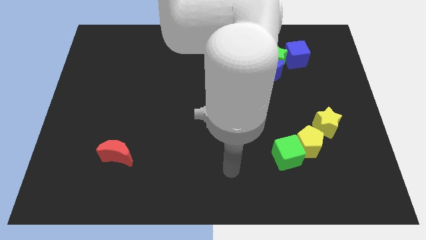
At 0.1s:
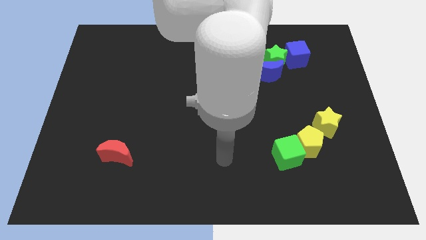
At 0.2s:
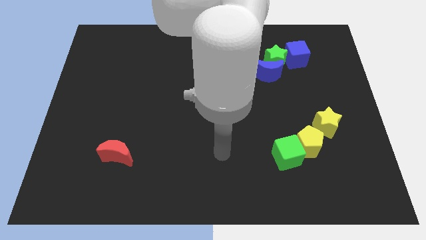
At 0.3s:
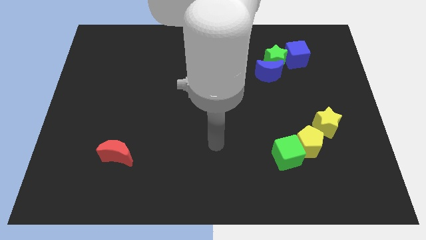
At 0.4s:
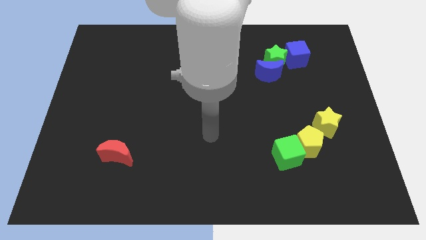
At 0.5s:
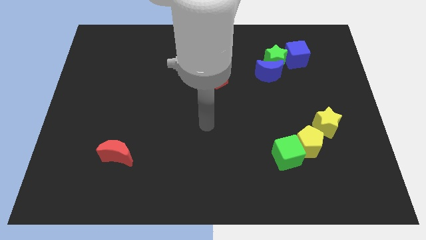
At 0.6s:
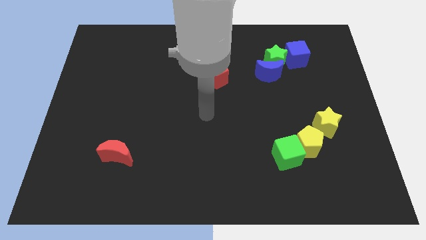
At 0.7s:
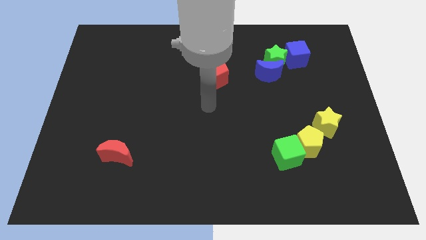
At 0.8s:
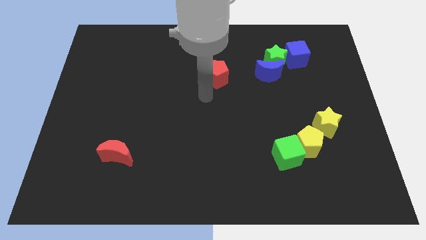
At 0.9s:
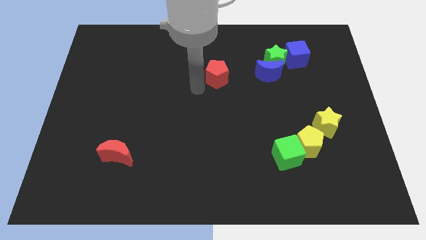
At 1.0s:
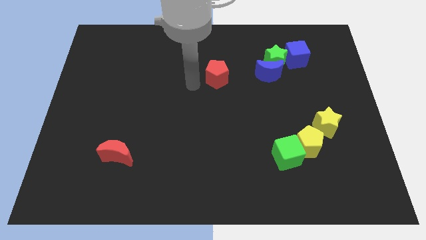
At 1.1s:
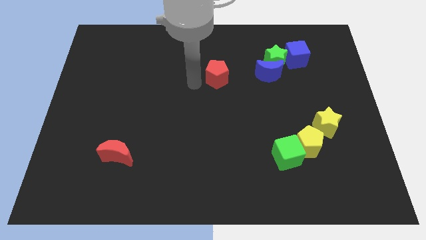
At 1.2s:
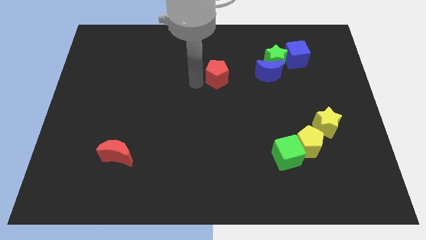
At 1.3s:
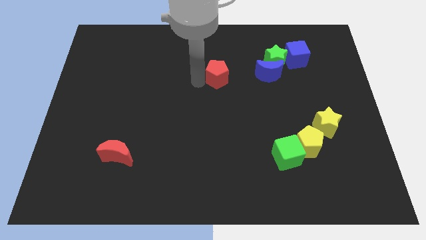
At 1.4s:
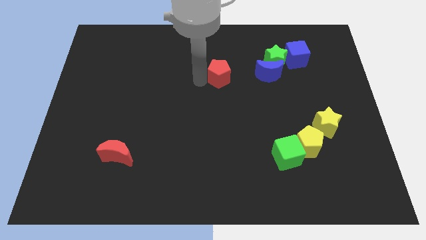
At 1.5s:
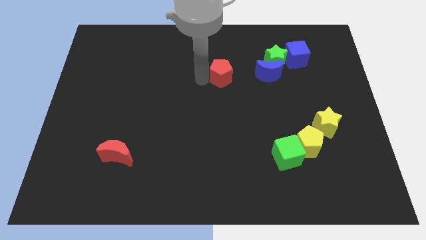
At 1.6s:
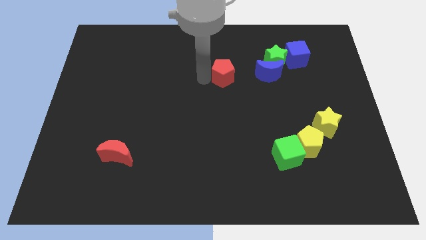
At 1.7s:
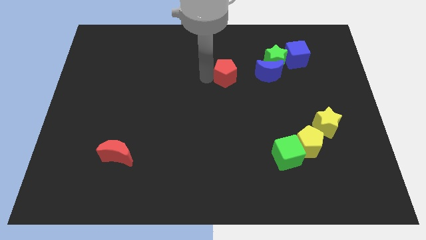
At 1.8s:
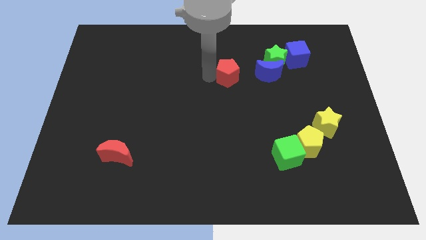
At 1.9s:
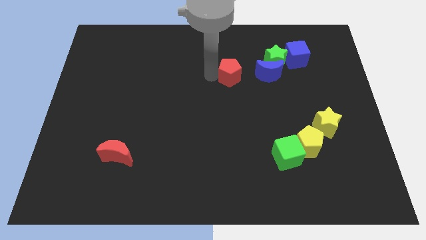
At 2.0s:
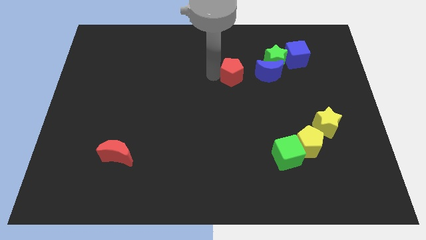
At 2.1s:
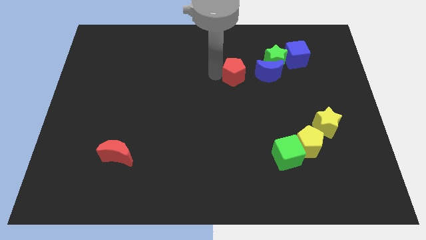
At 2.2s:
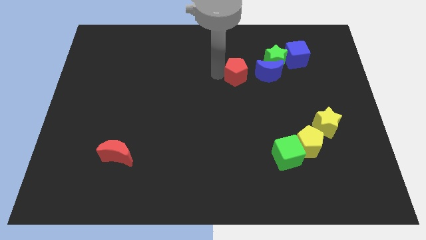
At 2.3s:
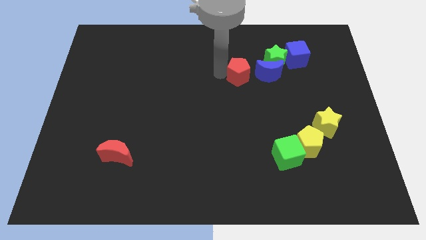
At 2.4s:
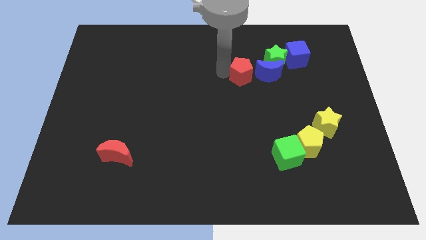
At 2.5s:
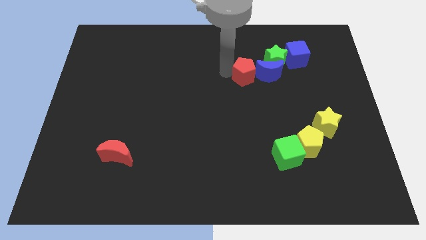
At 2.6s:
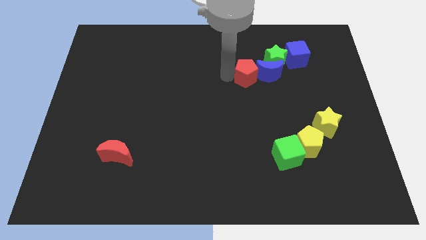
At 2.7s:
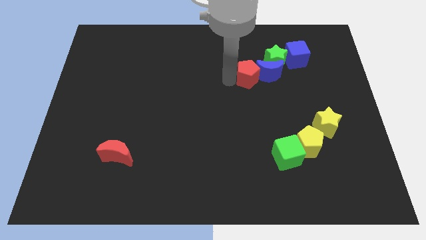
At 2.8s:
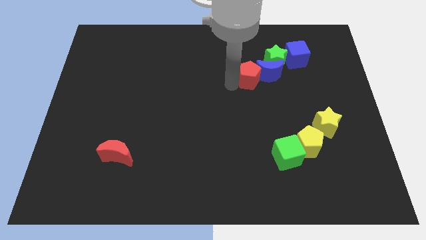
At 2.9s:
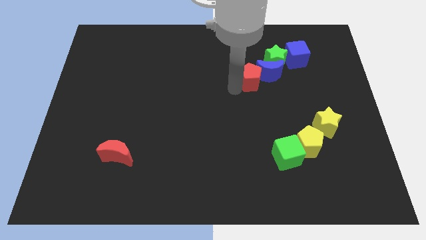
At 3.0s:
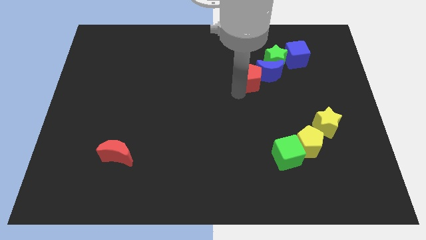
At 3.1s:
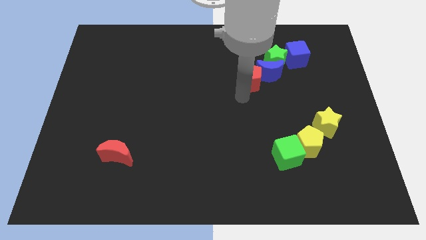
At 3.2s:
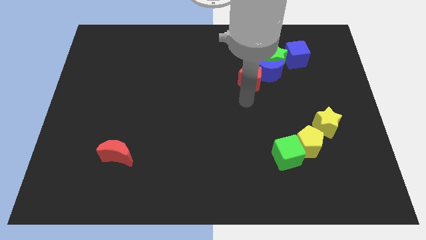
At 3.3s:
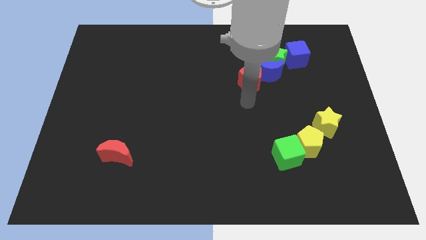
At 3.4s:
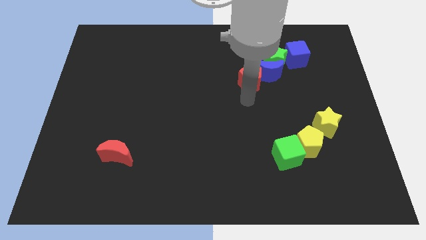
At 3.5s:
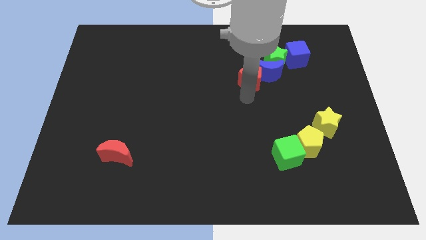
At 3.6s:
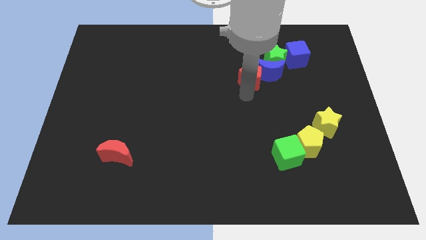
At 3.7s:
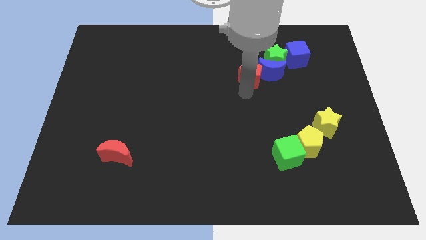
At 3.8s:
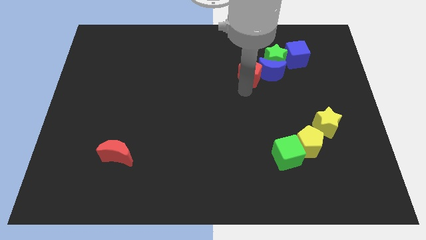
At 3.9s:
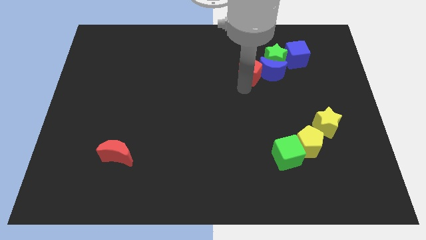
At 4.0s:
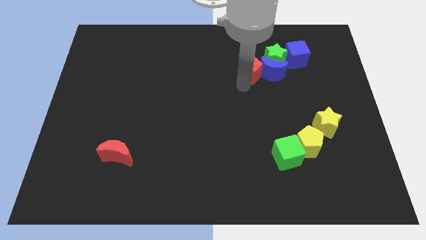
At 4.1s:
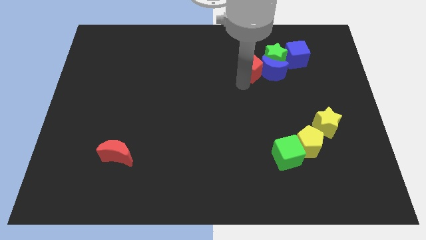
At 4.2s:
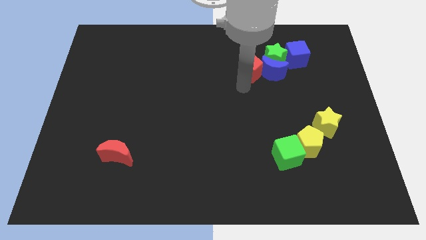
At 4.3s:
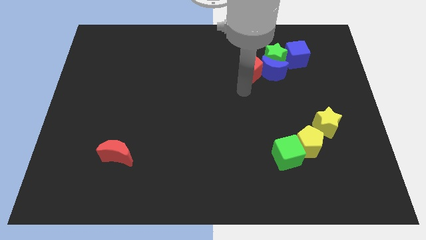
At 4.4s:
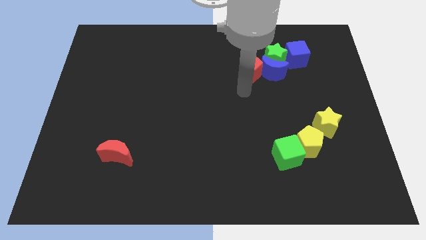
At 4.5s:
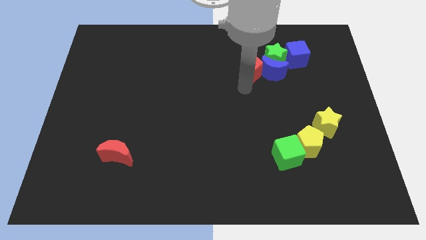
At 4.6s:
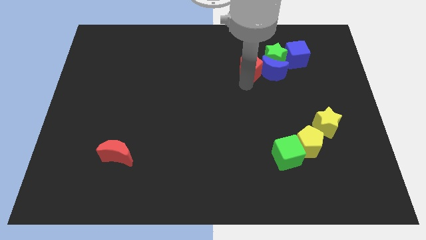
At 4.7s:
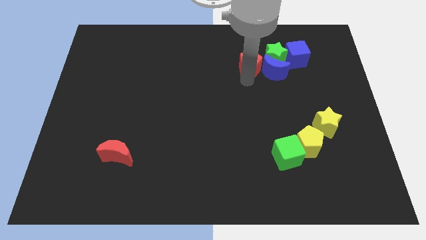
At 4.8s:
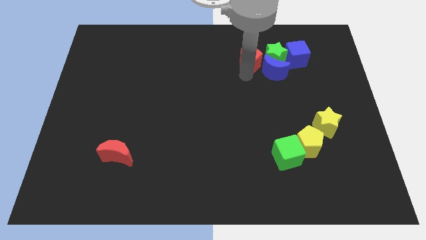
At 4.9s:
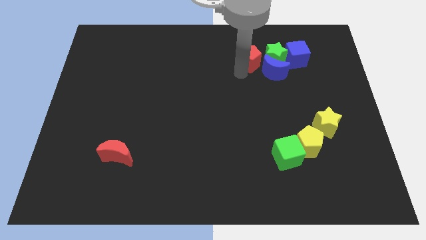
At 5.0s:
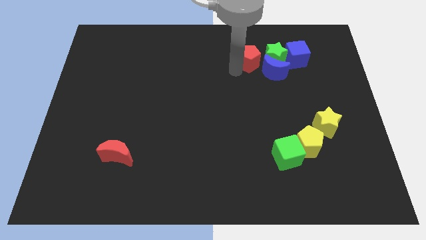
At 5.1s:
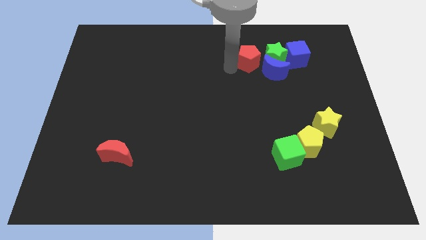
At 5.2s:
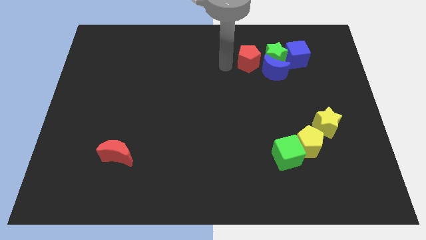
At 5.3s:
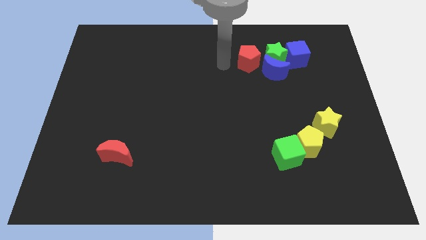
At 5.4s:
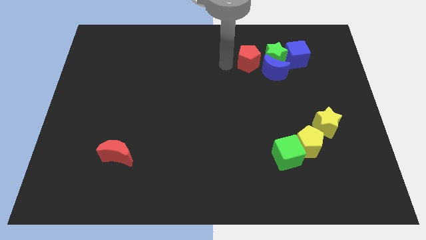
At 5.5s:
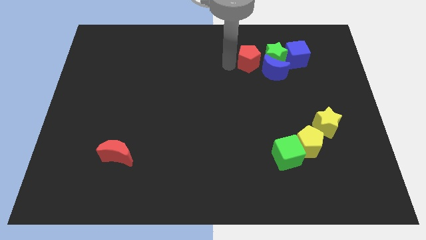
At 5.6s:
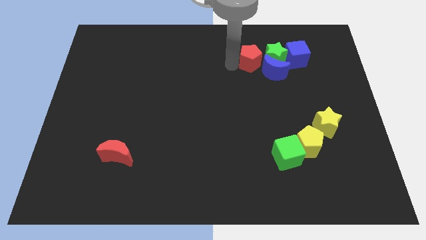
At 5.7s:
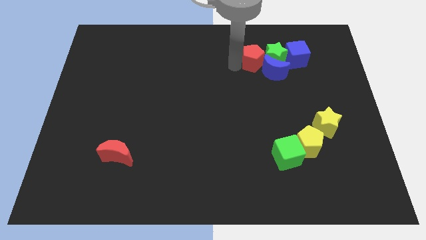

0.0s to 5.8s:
slide the red pentagon towards the green star

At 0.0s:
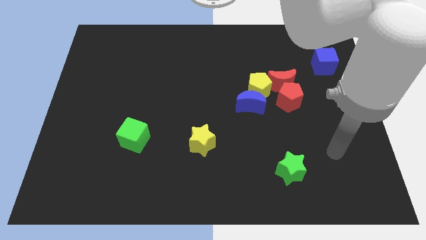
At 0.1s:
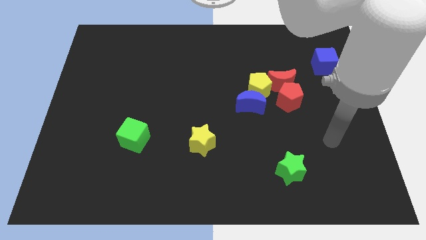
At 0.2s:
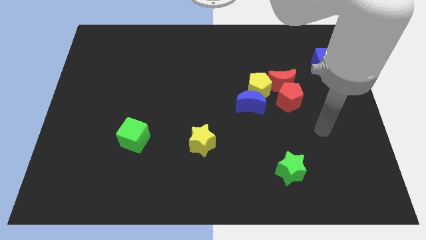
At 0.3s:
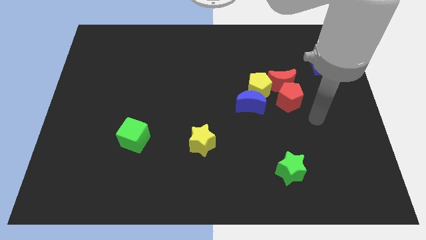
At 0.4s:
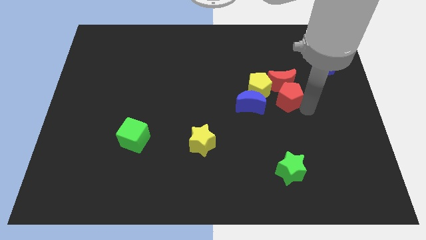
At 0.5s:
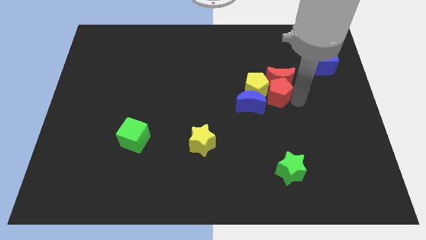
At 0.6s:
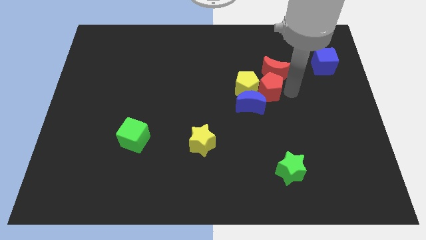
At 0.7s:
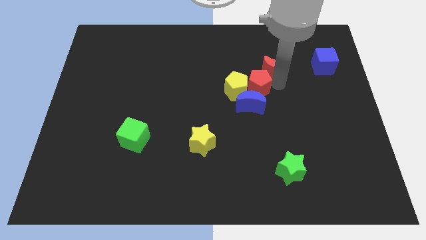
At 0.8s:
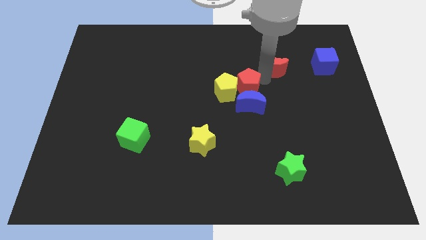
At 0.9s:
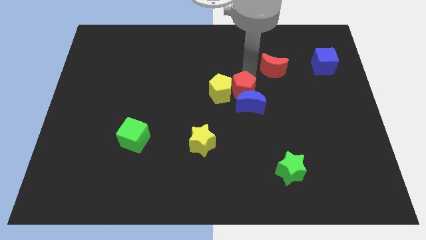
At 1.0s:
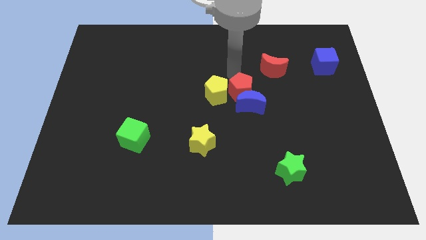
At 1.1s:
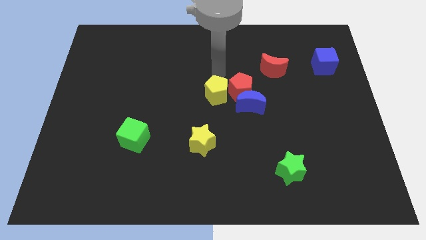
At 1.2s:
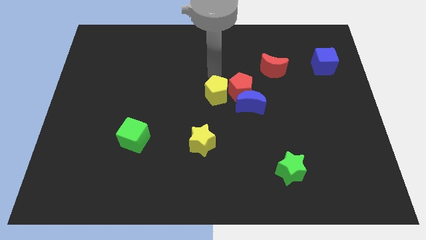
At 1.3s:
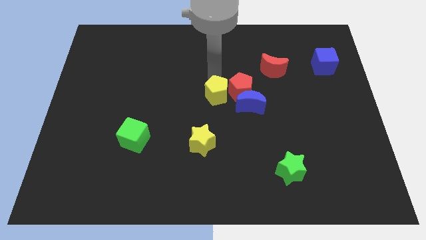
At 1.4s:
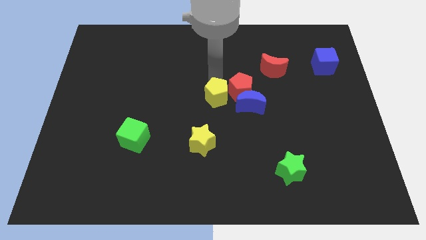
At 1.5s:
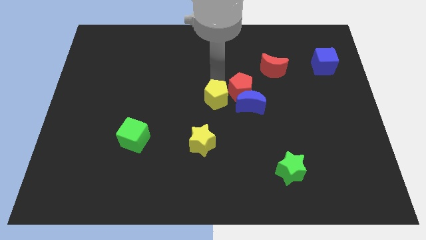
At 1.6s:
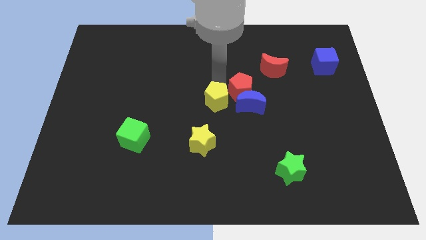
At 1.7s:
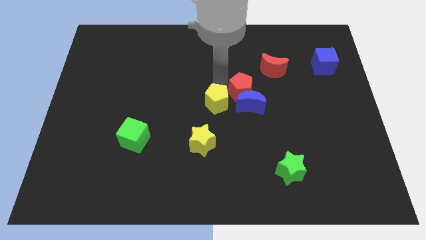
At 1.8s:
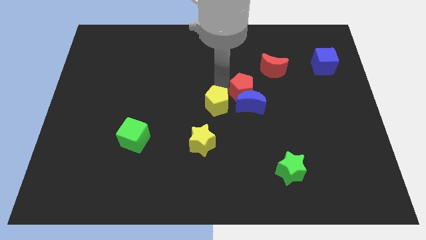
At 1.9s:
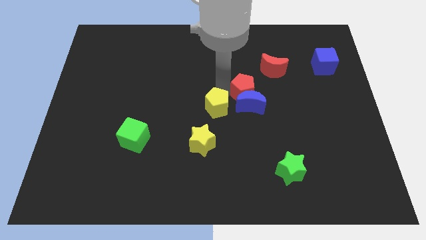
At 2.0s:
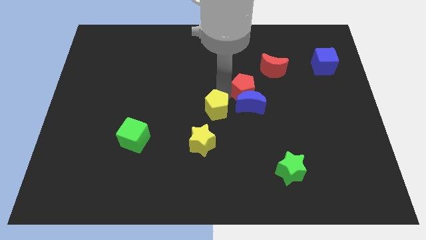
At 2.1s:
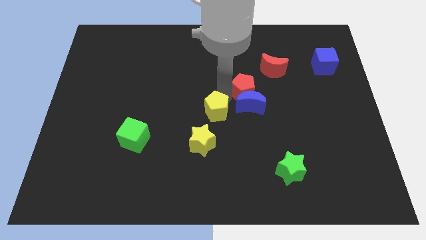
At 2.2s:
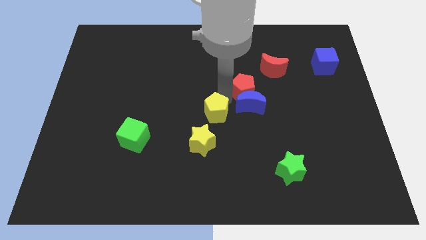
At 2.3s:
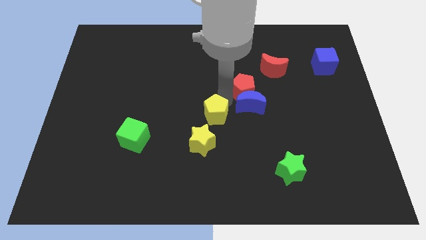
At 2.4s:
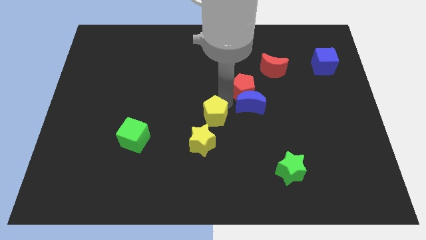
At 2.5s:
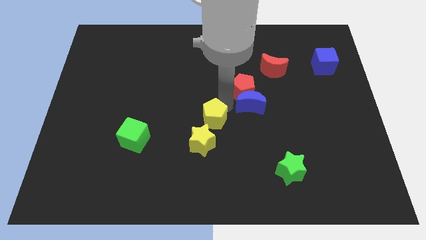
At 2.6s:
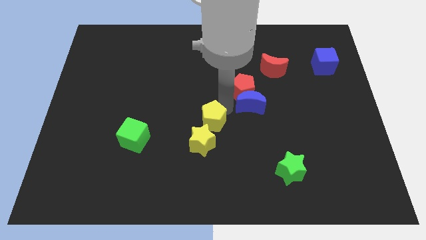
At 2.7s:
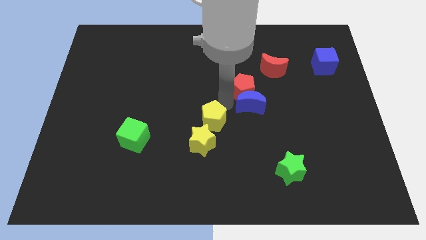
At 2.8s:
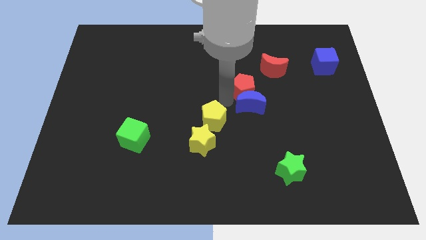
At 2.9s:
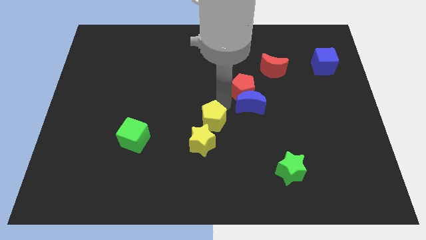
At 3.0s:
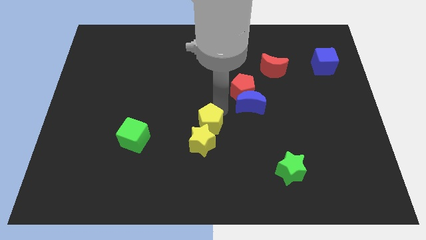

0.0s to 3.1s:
move the yellow pentagon close to the yellow star
